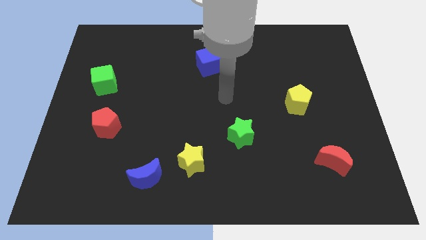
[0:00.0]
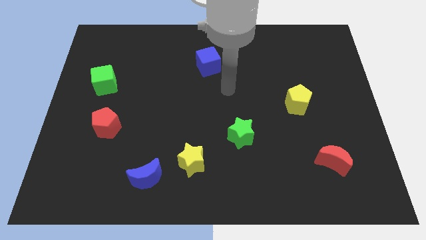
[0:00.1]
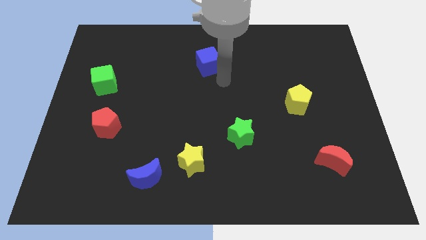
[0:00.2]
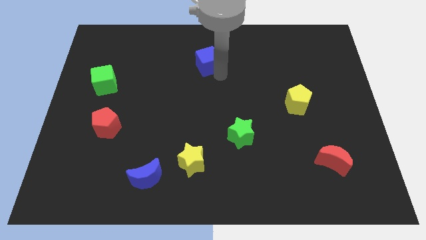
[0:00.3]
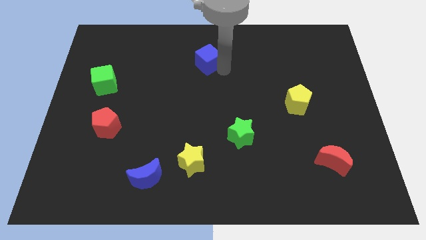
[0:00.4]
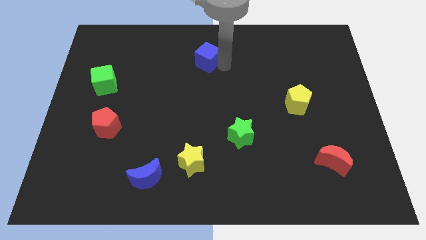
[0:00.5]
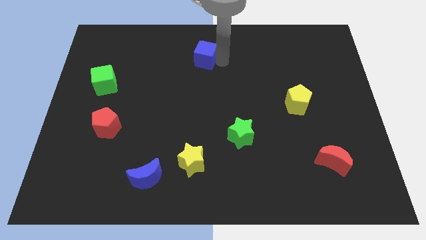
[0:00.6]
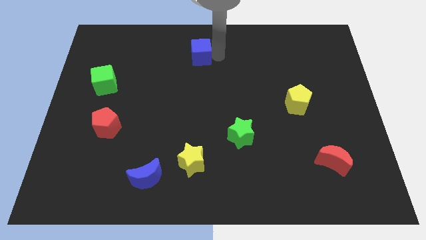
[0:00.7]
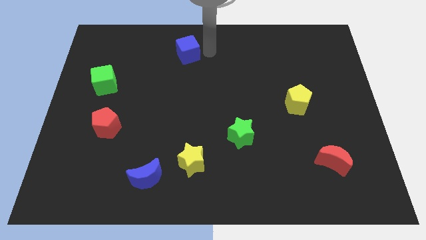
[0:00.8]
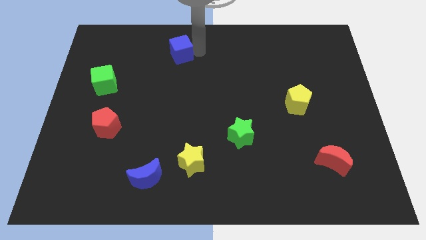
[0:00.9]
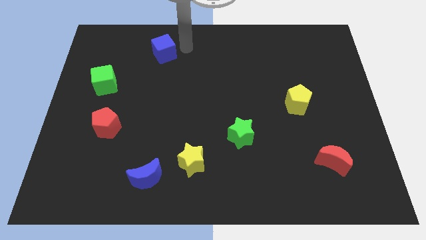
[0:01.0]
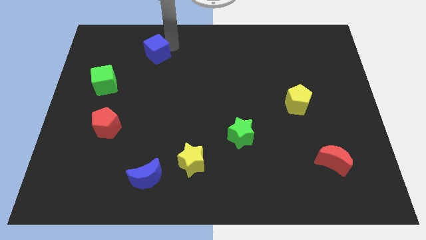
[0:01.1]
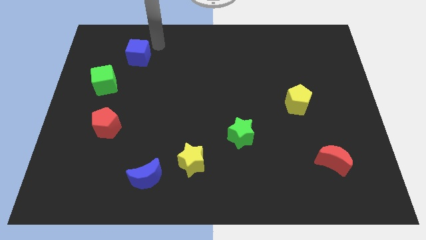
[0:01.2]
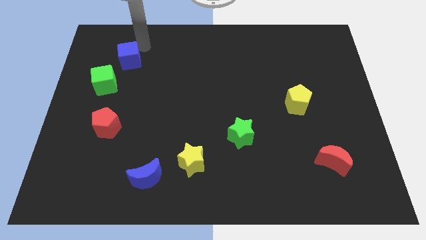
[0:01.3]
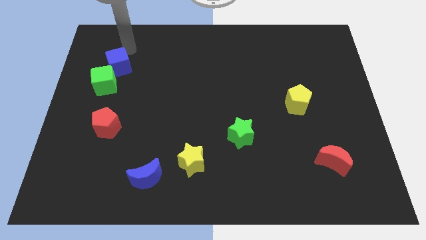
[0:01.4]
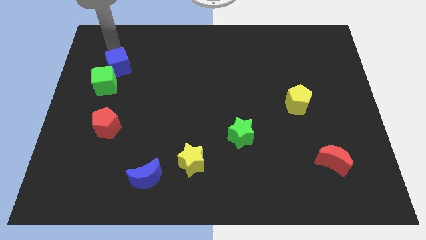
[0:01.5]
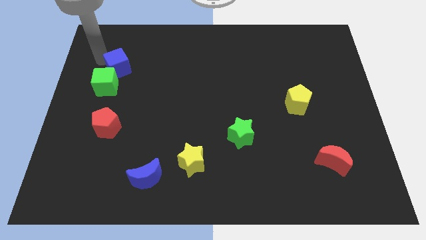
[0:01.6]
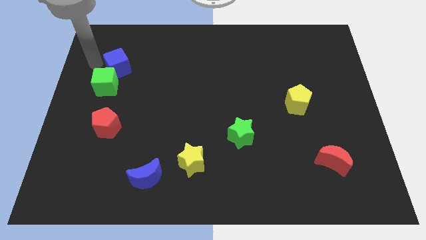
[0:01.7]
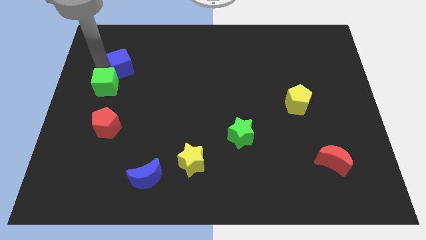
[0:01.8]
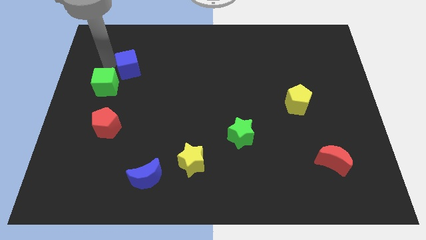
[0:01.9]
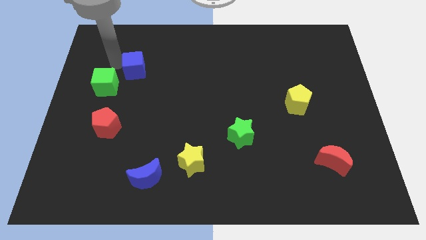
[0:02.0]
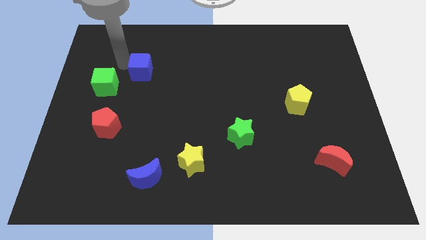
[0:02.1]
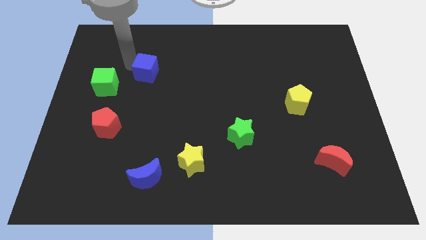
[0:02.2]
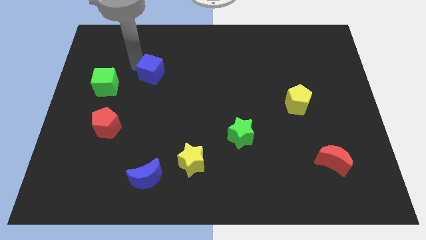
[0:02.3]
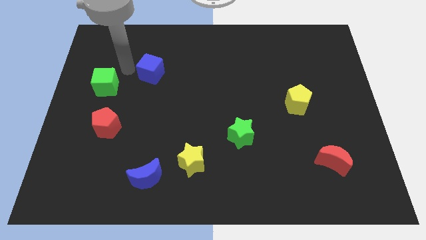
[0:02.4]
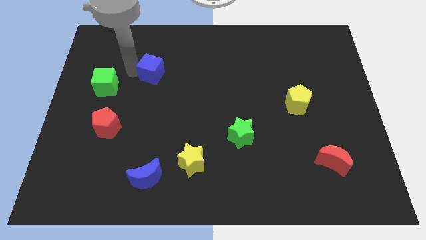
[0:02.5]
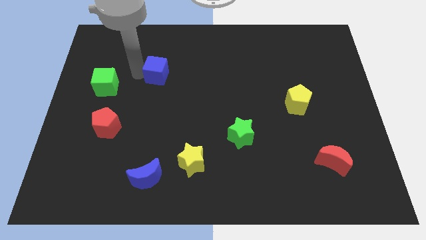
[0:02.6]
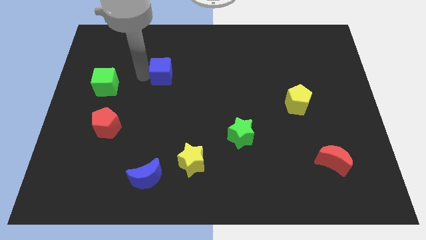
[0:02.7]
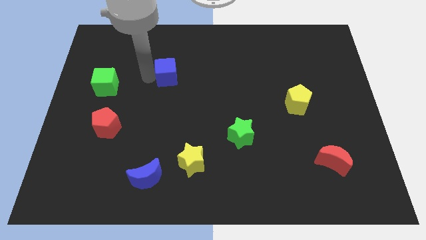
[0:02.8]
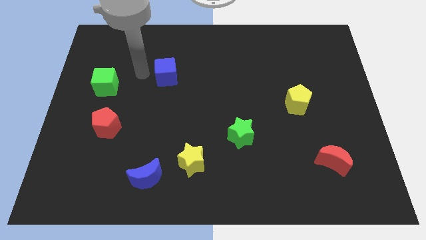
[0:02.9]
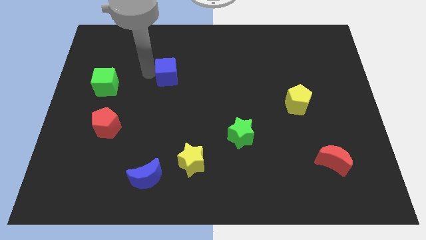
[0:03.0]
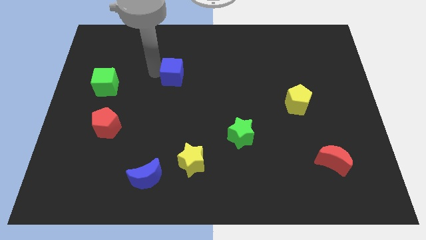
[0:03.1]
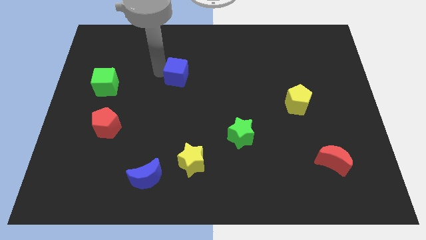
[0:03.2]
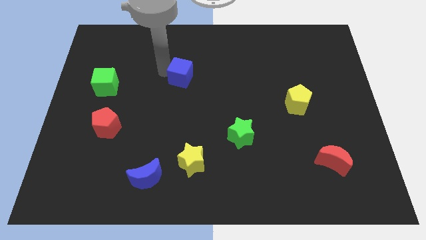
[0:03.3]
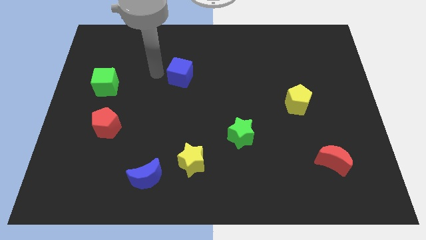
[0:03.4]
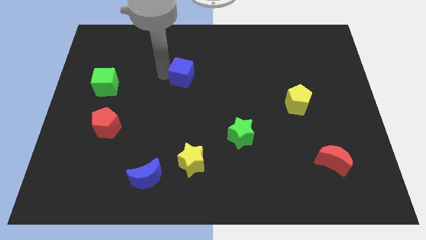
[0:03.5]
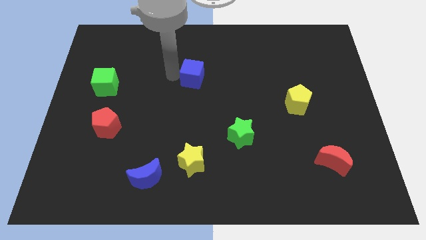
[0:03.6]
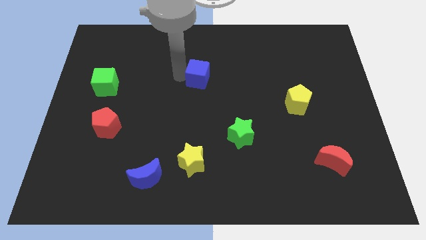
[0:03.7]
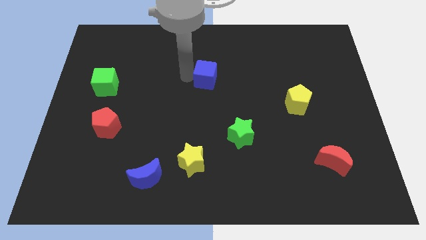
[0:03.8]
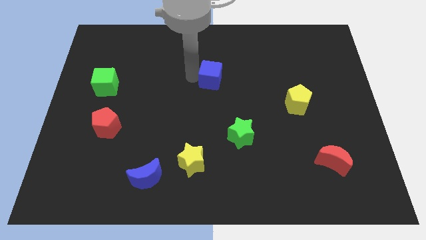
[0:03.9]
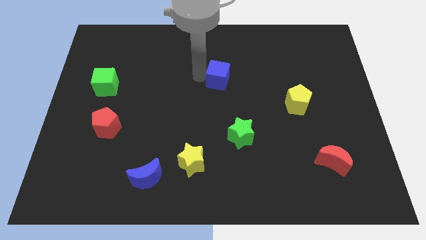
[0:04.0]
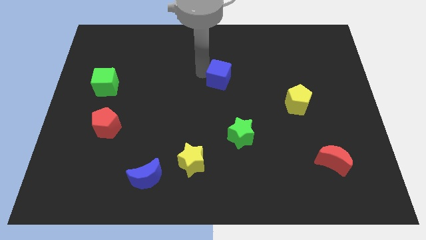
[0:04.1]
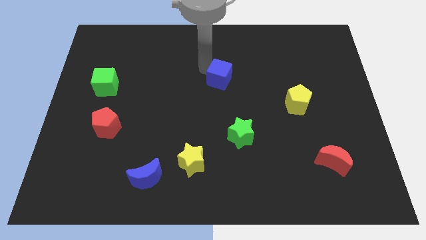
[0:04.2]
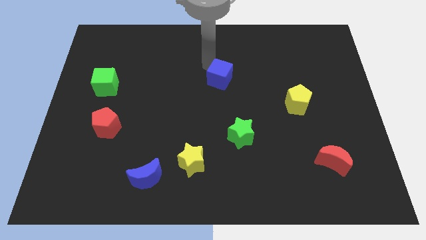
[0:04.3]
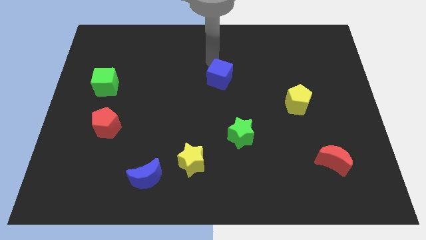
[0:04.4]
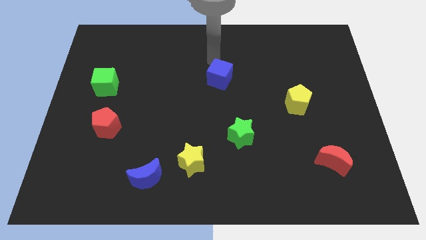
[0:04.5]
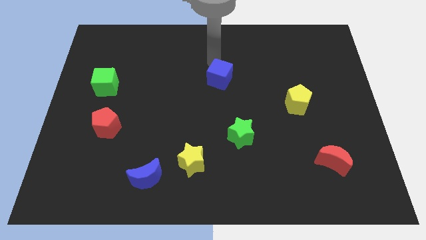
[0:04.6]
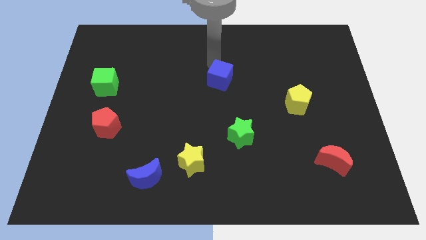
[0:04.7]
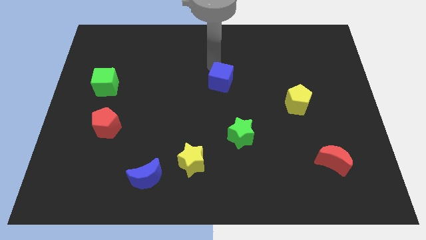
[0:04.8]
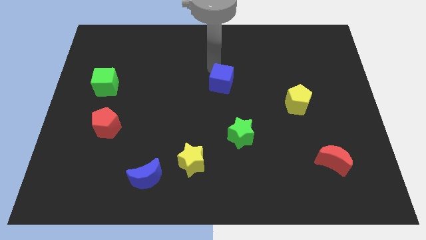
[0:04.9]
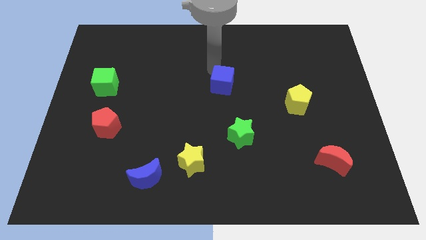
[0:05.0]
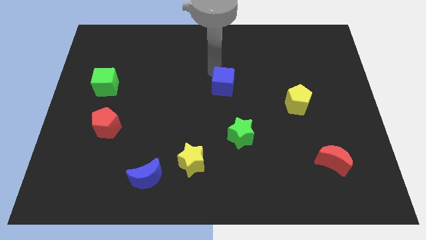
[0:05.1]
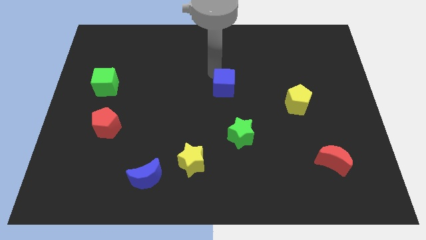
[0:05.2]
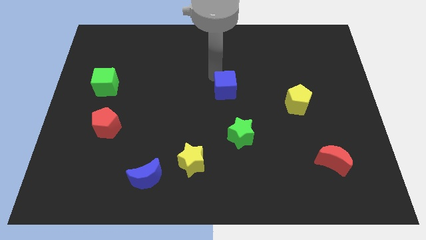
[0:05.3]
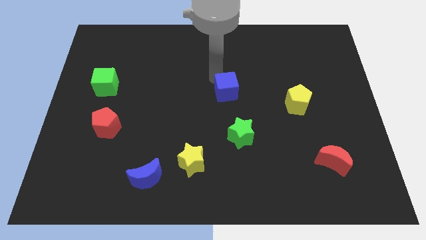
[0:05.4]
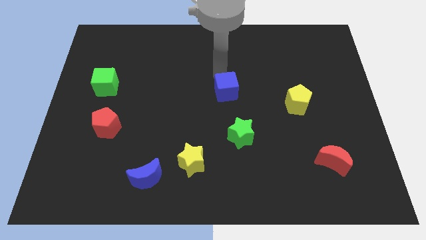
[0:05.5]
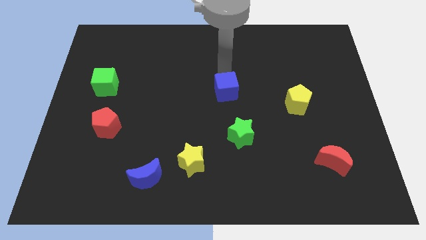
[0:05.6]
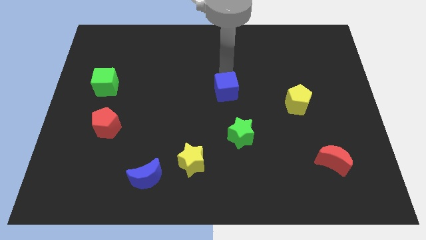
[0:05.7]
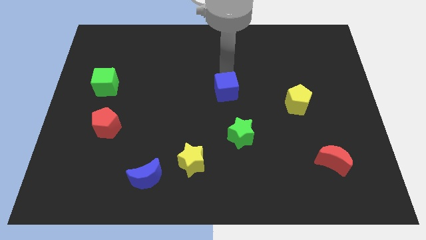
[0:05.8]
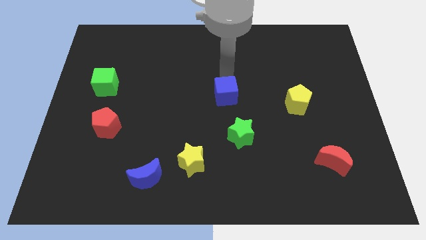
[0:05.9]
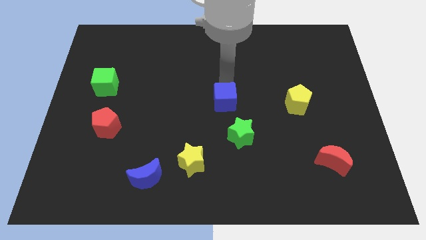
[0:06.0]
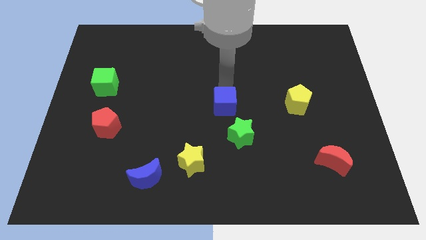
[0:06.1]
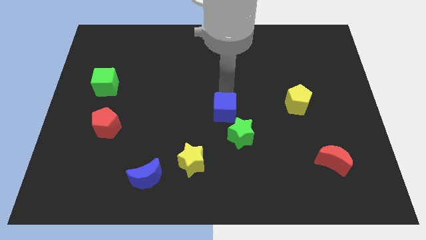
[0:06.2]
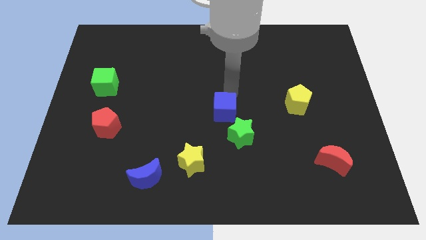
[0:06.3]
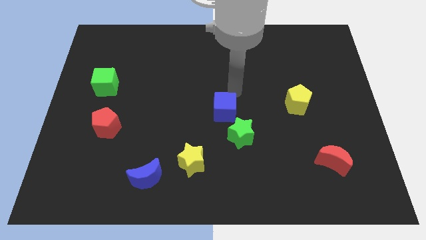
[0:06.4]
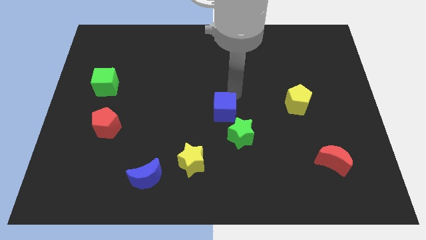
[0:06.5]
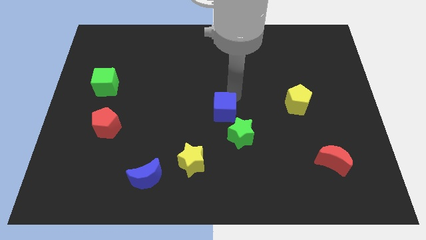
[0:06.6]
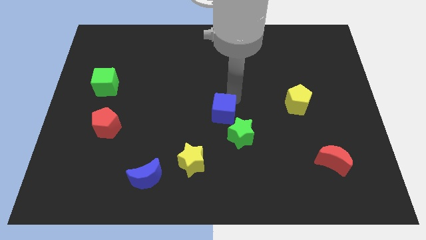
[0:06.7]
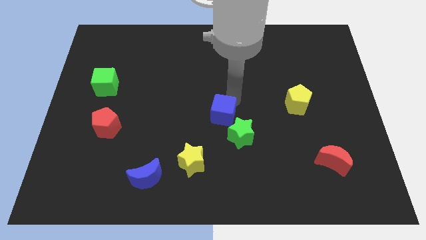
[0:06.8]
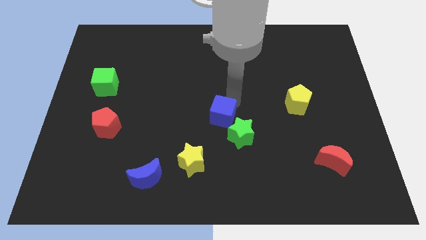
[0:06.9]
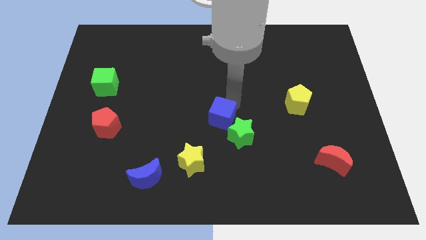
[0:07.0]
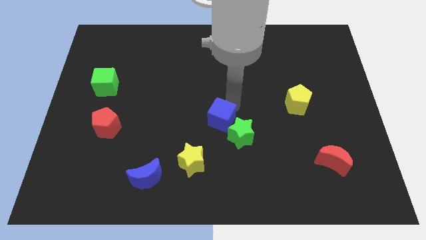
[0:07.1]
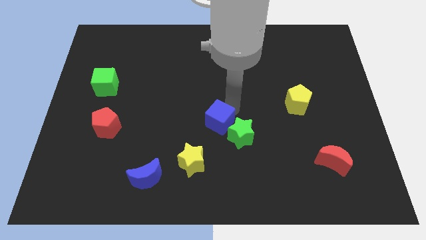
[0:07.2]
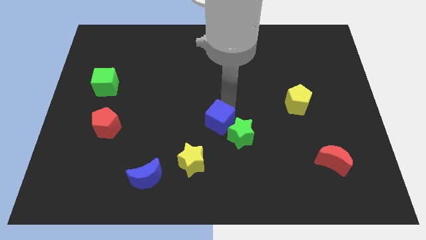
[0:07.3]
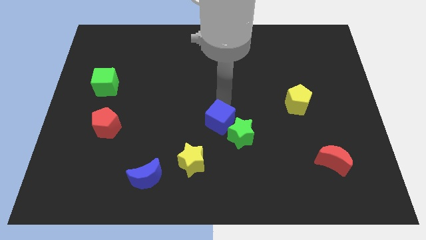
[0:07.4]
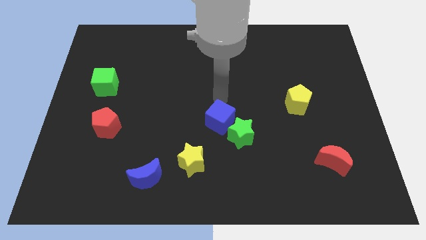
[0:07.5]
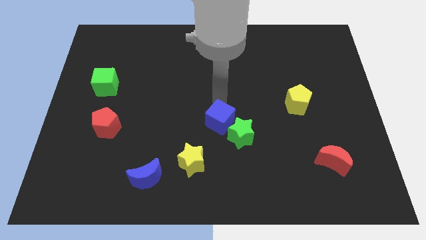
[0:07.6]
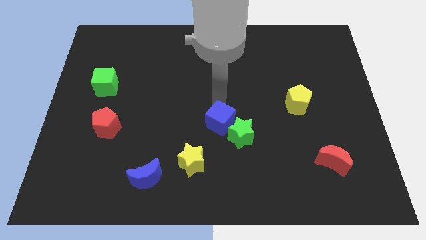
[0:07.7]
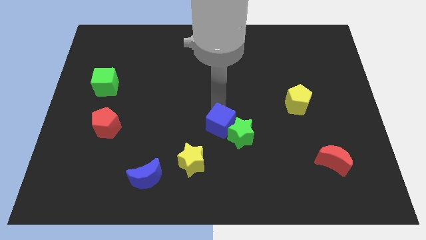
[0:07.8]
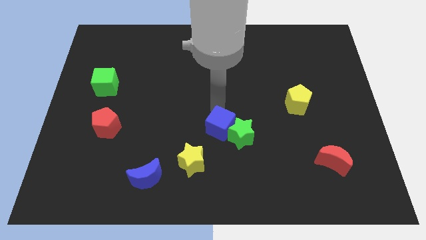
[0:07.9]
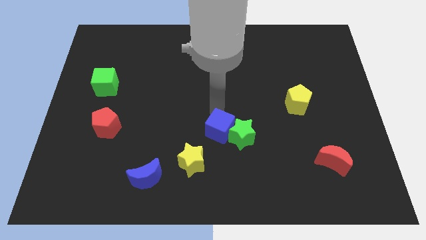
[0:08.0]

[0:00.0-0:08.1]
push the blue cube down
